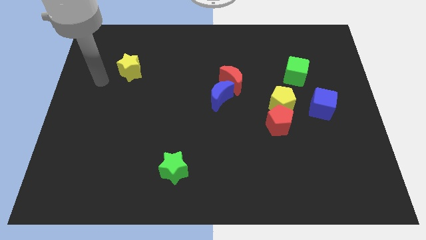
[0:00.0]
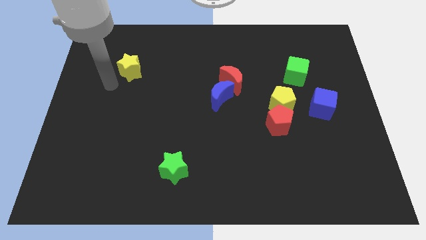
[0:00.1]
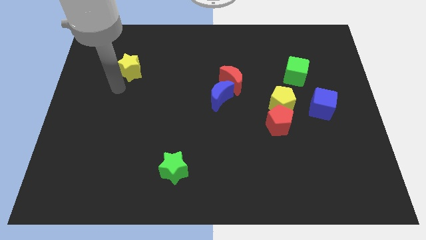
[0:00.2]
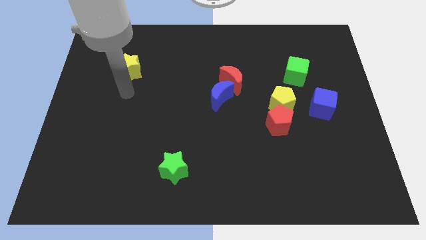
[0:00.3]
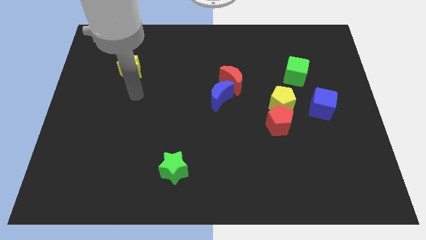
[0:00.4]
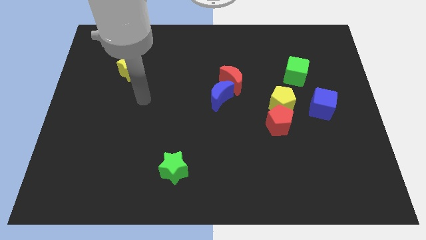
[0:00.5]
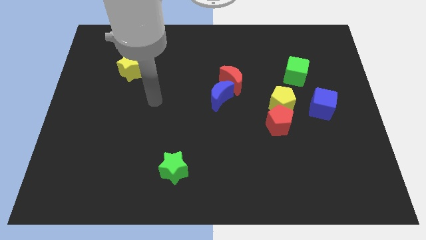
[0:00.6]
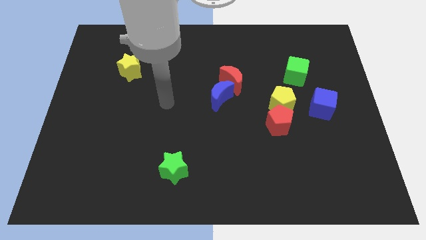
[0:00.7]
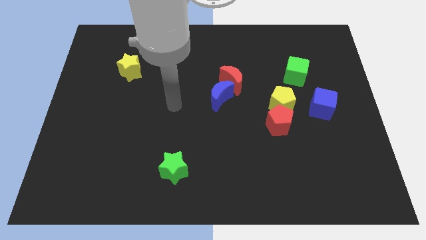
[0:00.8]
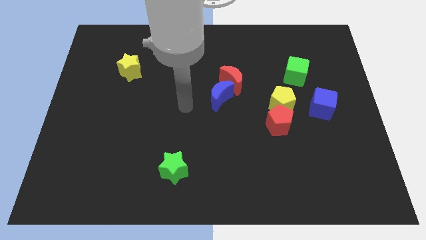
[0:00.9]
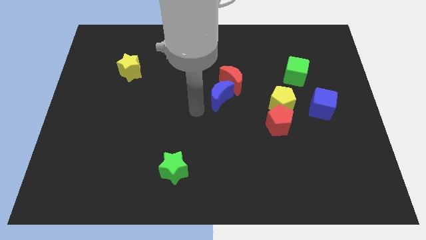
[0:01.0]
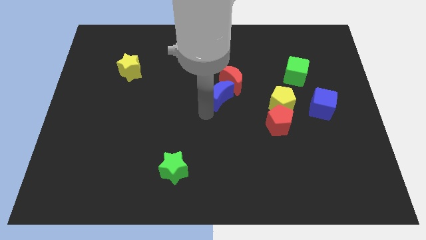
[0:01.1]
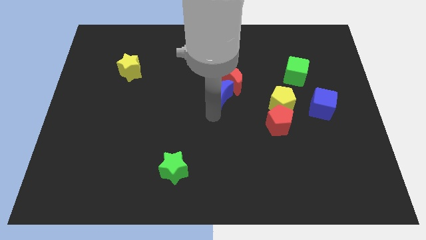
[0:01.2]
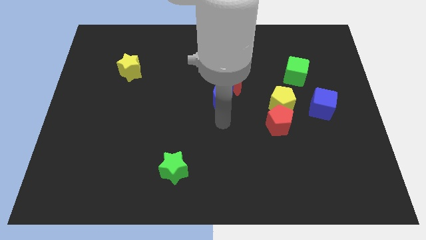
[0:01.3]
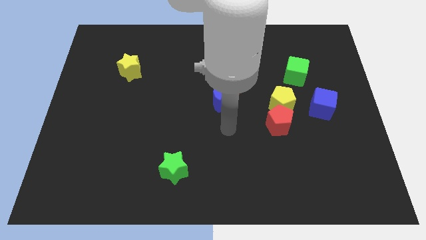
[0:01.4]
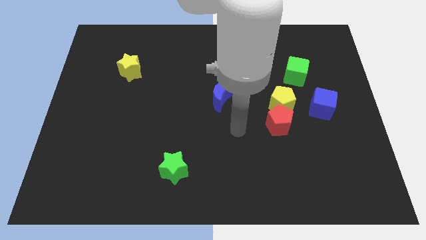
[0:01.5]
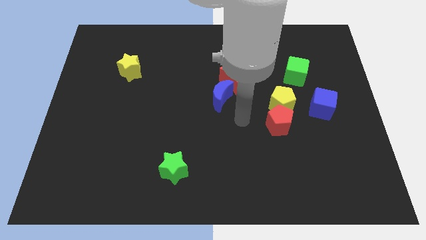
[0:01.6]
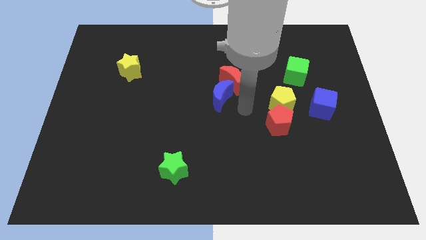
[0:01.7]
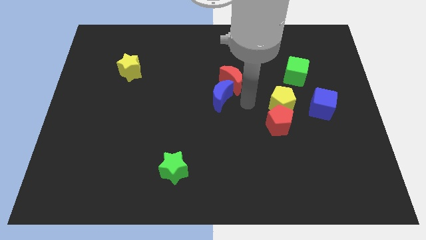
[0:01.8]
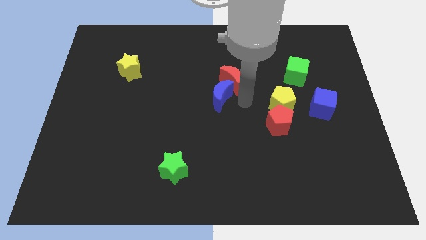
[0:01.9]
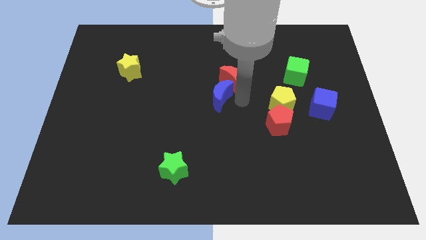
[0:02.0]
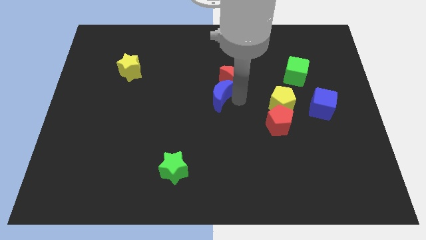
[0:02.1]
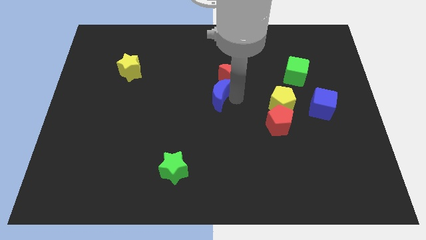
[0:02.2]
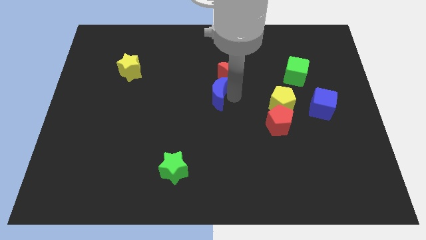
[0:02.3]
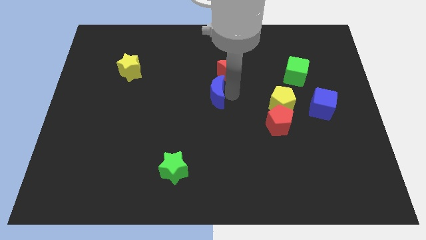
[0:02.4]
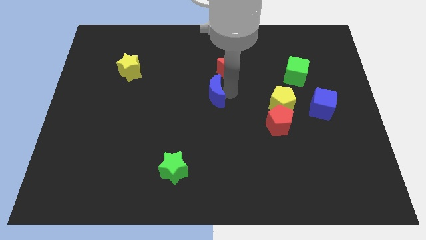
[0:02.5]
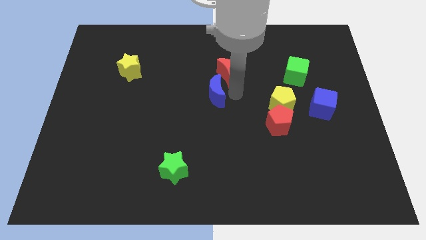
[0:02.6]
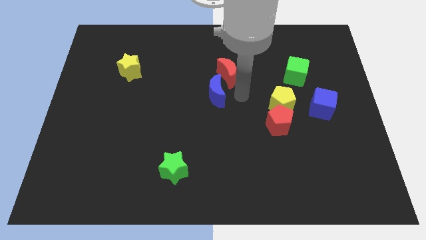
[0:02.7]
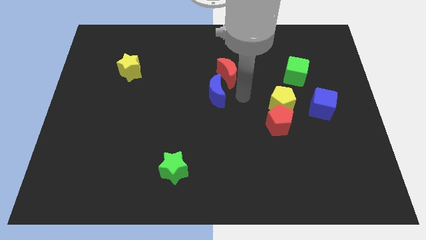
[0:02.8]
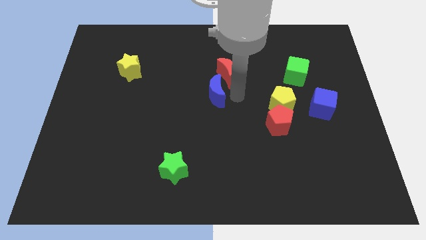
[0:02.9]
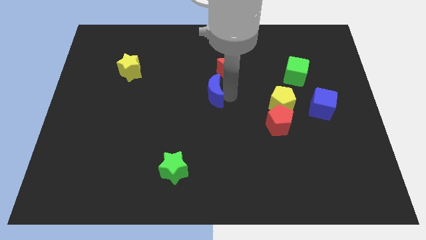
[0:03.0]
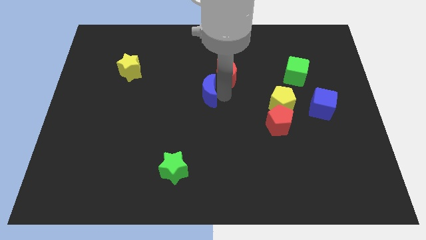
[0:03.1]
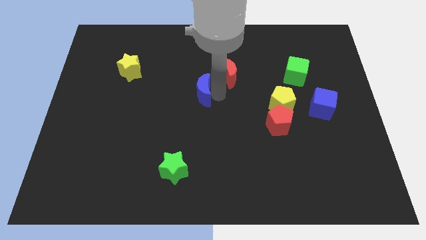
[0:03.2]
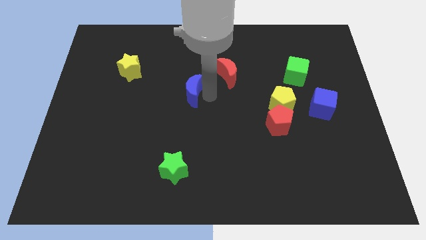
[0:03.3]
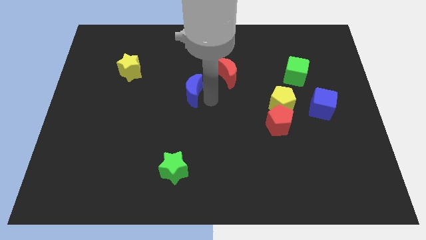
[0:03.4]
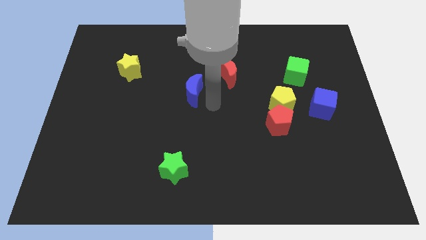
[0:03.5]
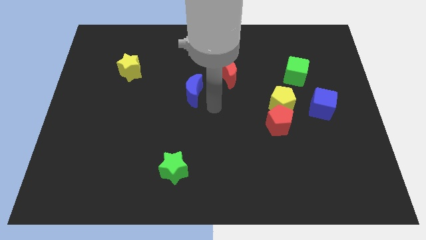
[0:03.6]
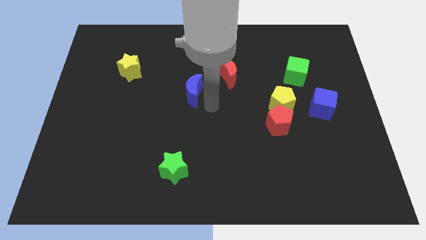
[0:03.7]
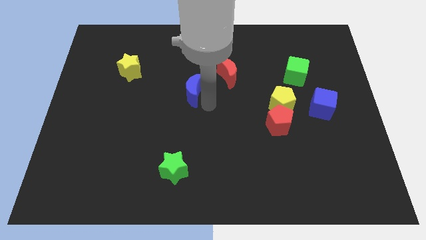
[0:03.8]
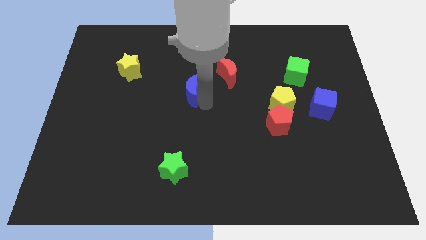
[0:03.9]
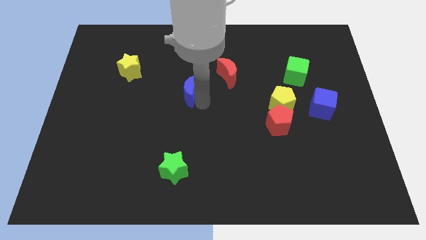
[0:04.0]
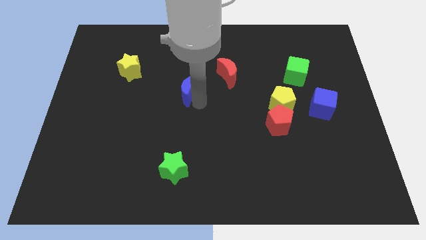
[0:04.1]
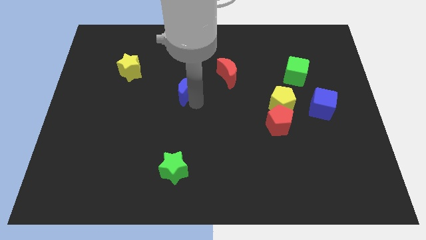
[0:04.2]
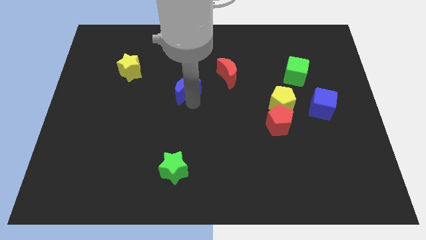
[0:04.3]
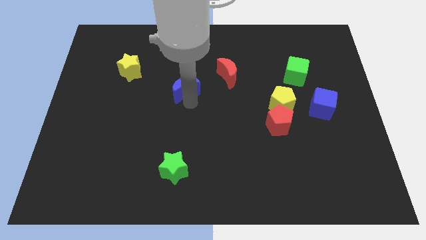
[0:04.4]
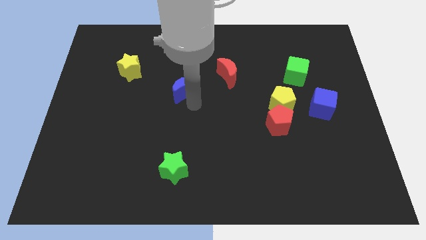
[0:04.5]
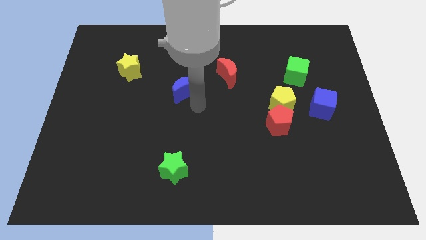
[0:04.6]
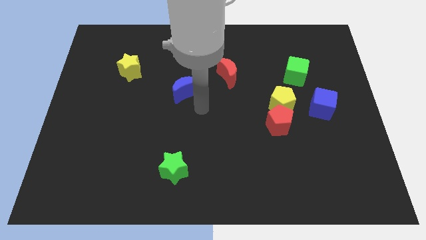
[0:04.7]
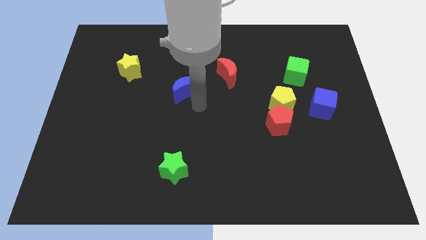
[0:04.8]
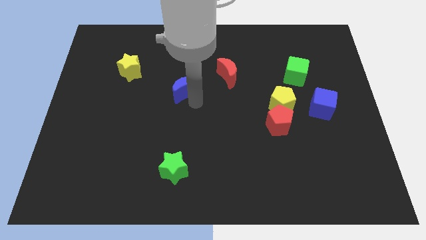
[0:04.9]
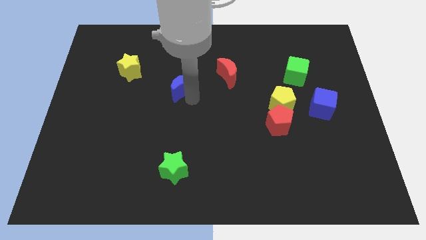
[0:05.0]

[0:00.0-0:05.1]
move the blue moon slightly upwards and then left

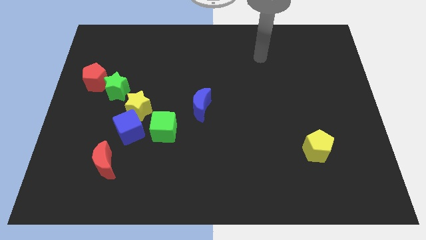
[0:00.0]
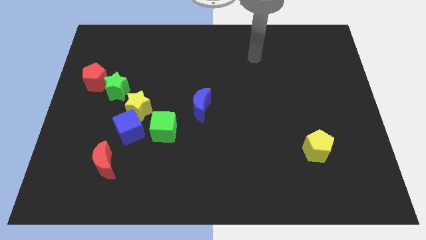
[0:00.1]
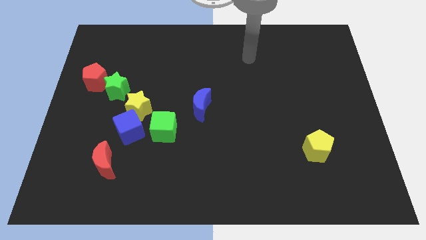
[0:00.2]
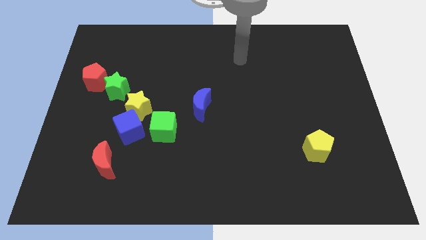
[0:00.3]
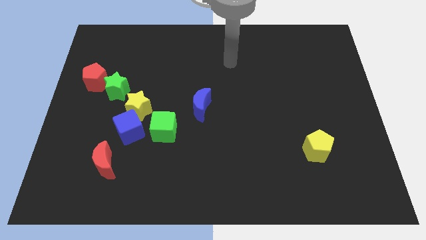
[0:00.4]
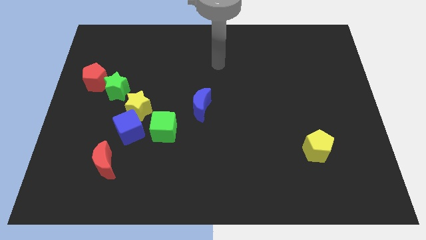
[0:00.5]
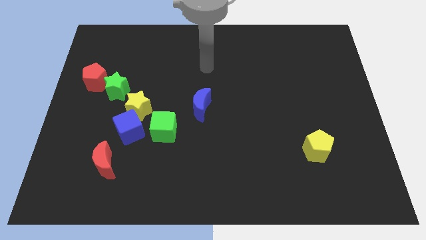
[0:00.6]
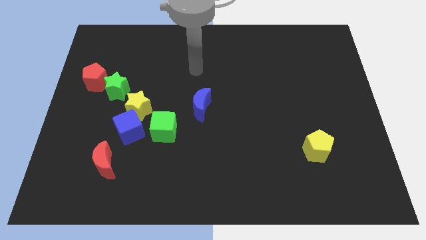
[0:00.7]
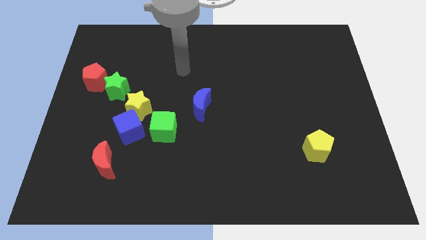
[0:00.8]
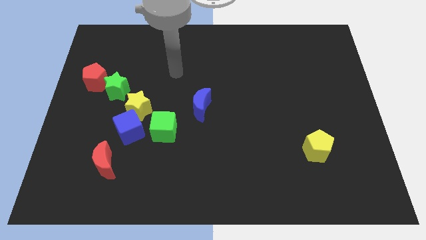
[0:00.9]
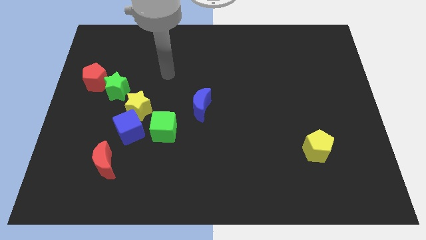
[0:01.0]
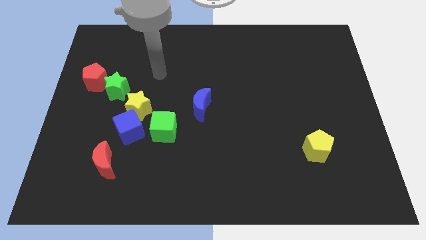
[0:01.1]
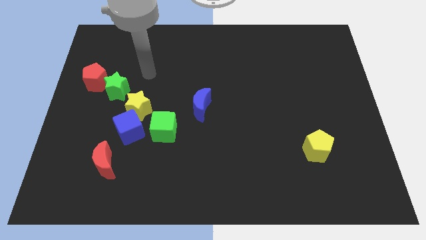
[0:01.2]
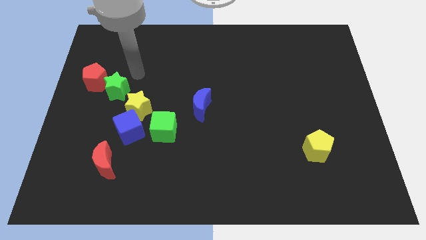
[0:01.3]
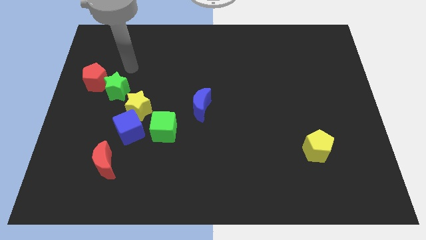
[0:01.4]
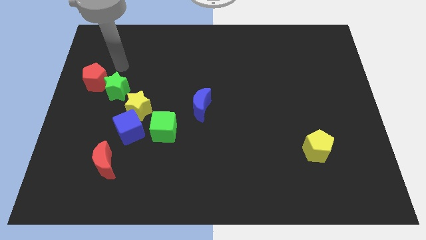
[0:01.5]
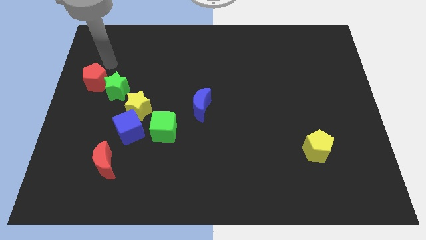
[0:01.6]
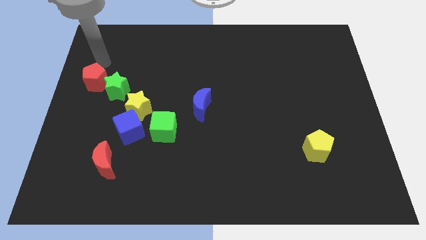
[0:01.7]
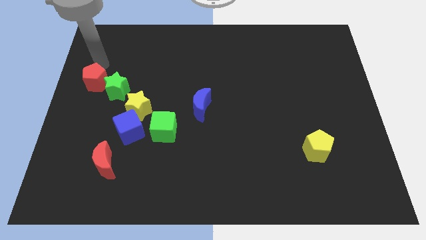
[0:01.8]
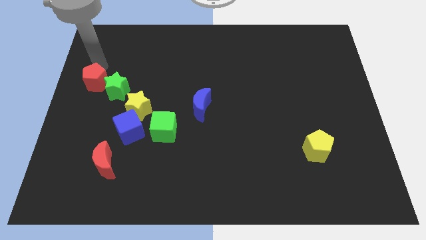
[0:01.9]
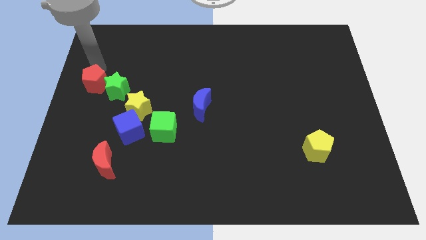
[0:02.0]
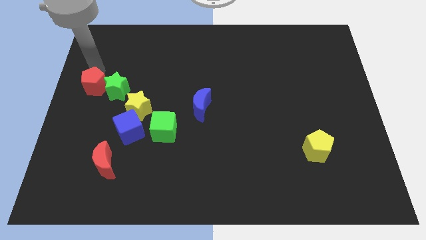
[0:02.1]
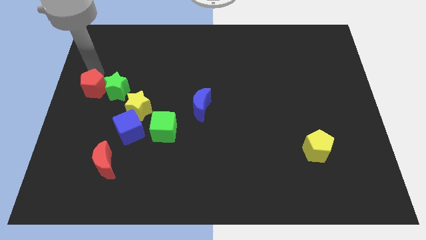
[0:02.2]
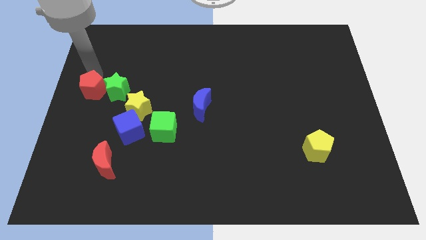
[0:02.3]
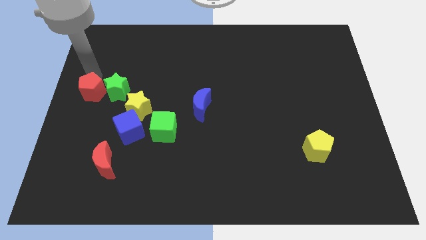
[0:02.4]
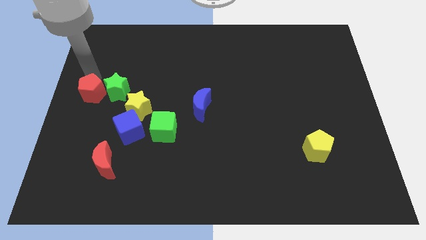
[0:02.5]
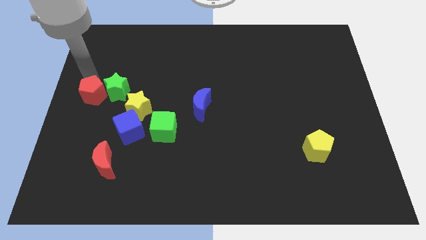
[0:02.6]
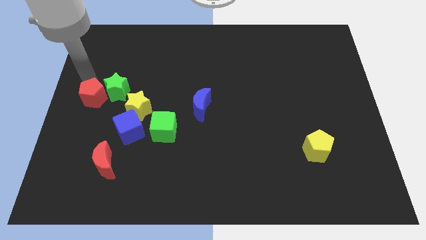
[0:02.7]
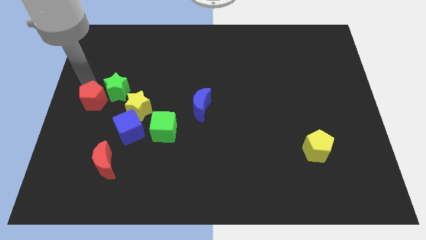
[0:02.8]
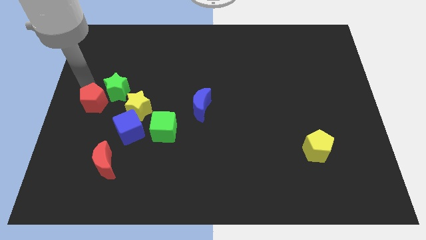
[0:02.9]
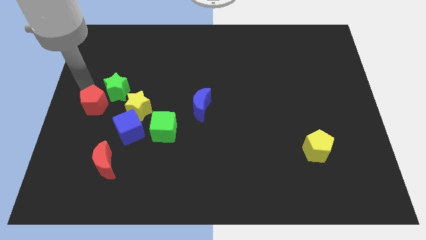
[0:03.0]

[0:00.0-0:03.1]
slightly push the red pentagon down
